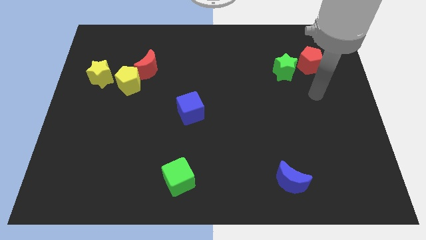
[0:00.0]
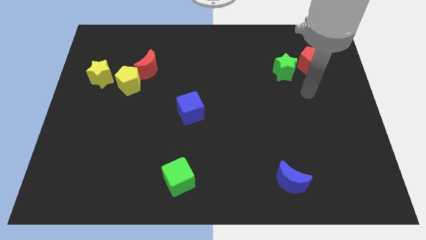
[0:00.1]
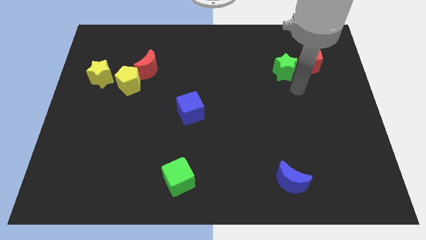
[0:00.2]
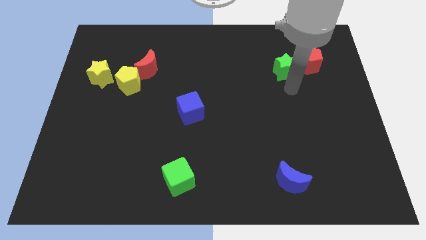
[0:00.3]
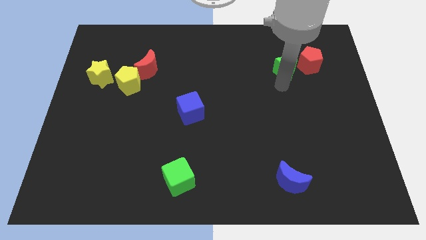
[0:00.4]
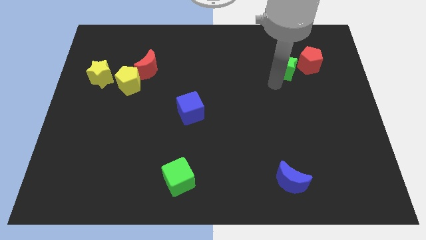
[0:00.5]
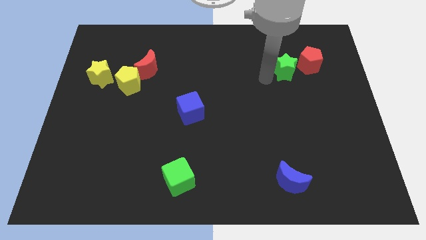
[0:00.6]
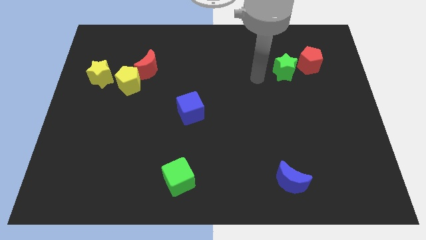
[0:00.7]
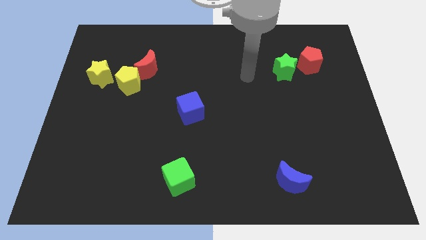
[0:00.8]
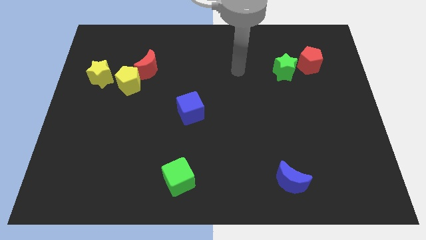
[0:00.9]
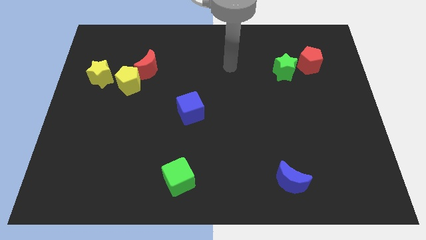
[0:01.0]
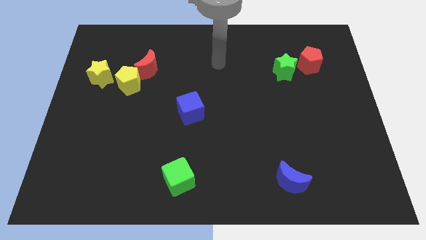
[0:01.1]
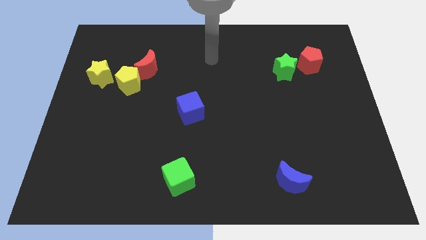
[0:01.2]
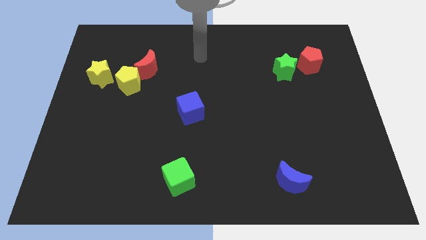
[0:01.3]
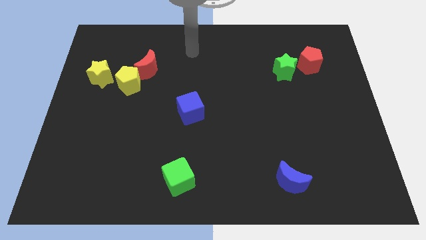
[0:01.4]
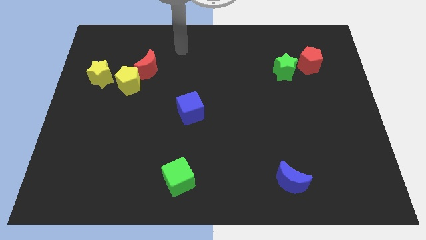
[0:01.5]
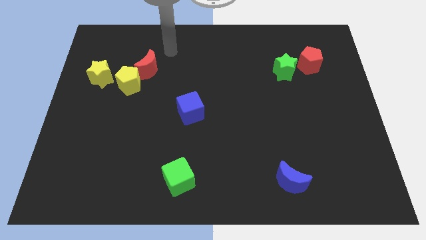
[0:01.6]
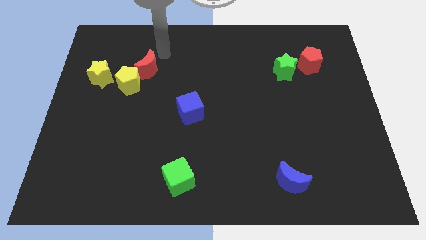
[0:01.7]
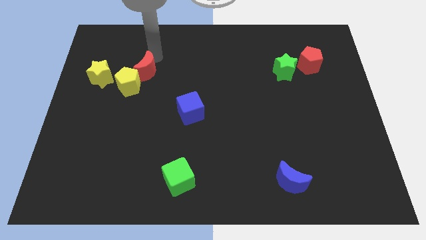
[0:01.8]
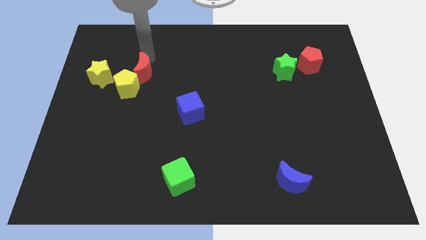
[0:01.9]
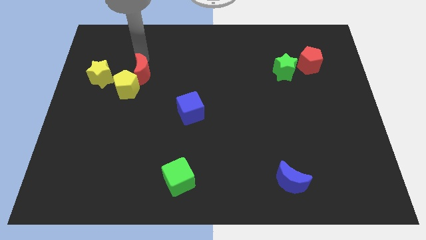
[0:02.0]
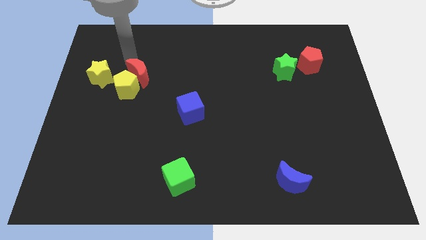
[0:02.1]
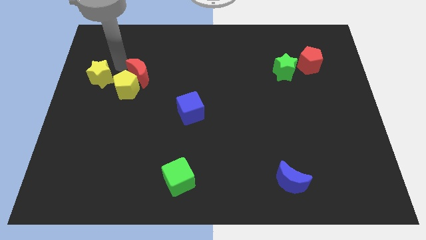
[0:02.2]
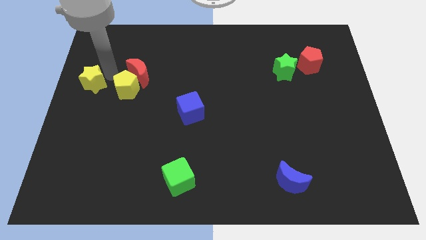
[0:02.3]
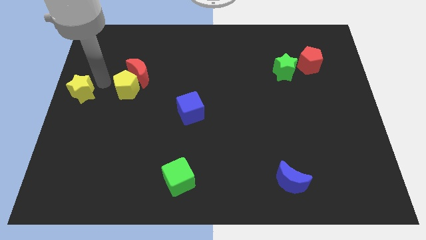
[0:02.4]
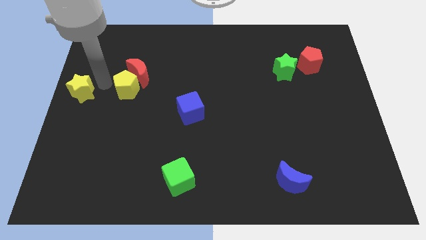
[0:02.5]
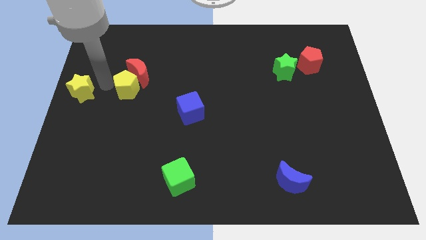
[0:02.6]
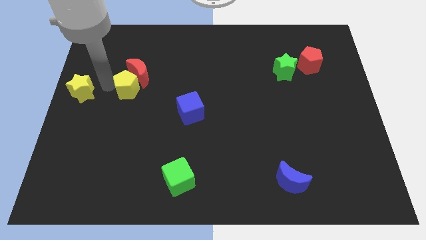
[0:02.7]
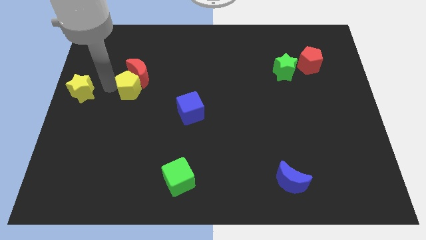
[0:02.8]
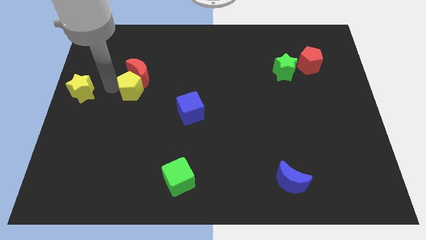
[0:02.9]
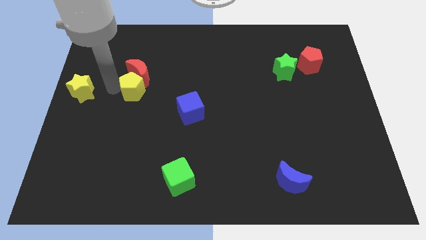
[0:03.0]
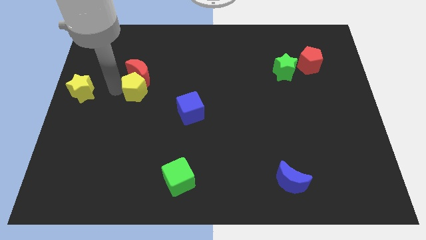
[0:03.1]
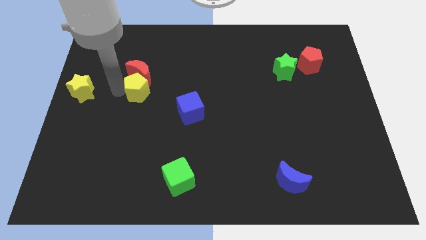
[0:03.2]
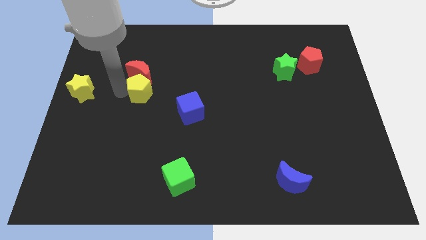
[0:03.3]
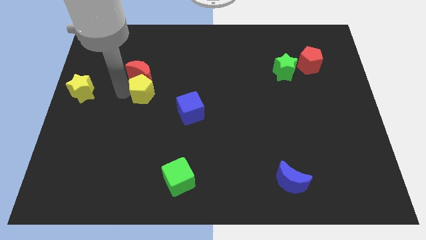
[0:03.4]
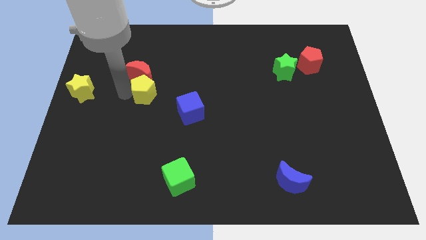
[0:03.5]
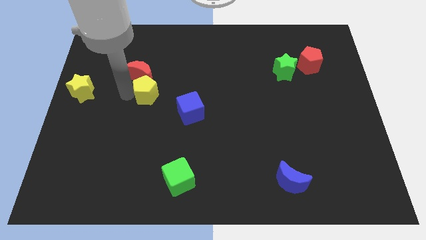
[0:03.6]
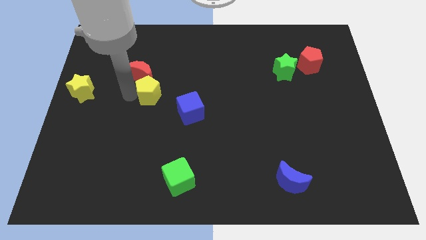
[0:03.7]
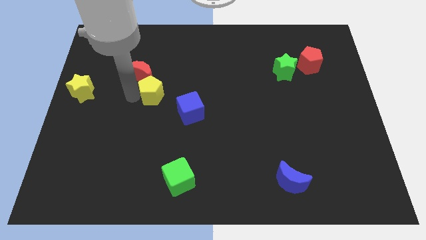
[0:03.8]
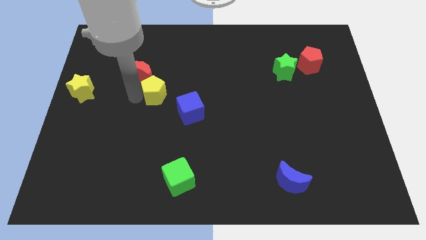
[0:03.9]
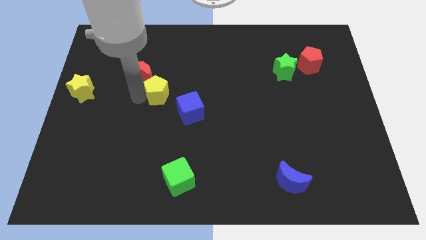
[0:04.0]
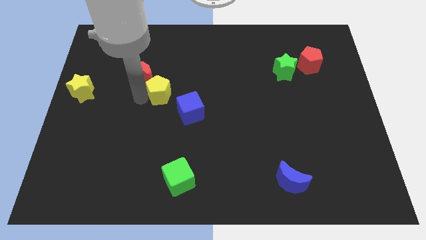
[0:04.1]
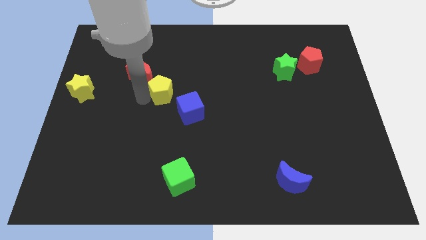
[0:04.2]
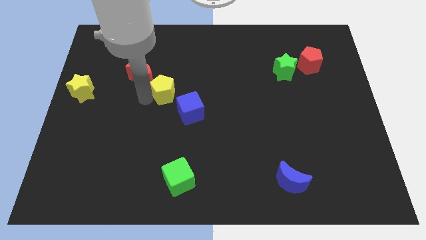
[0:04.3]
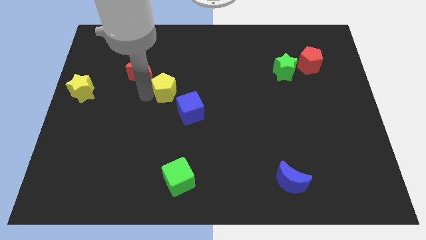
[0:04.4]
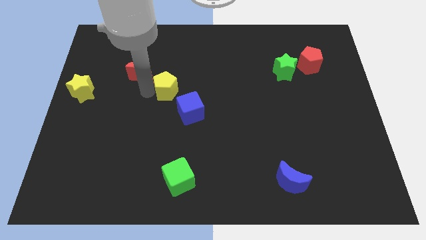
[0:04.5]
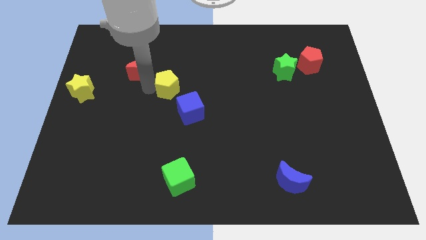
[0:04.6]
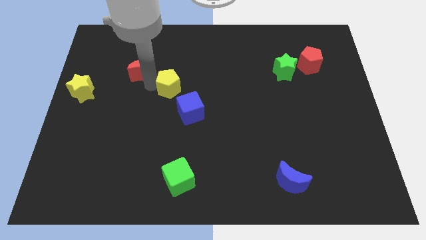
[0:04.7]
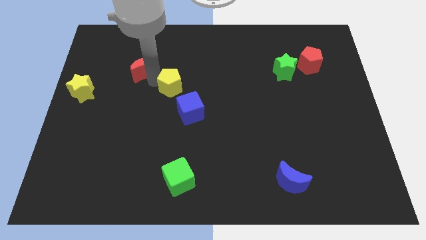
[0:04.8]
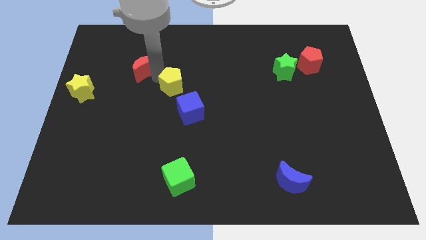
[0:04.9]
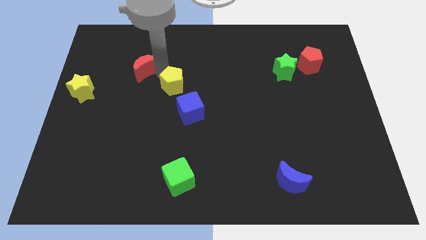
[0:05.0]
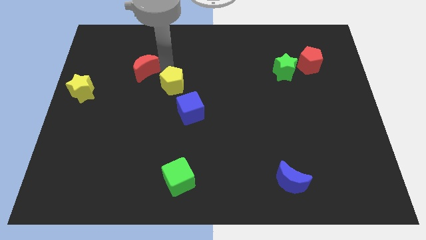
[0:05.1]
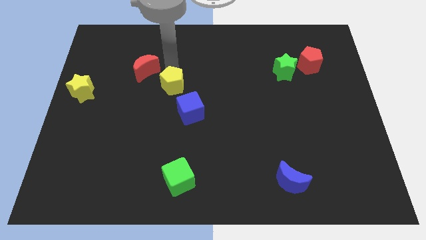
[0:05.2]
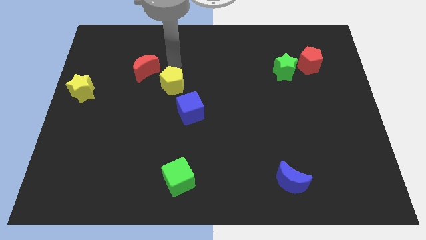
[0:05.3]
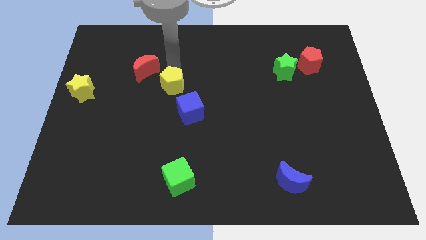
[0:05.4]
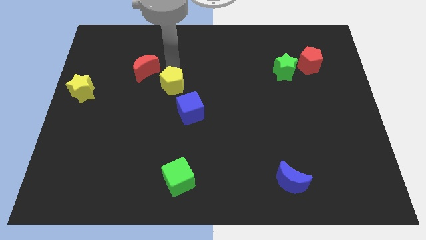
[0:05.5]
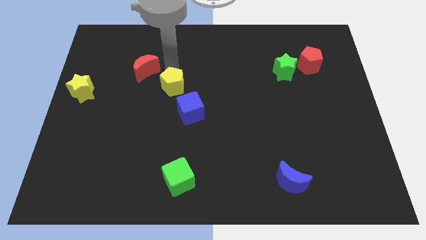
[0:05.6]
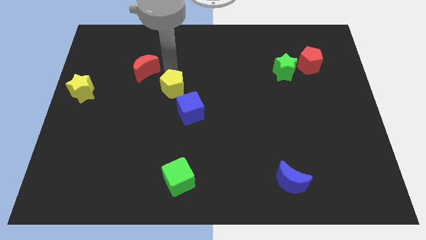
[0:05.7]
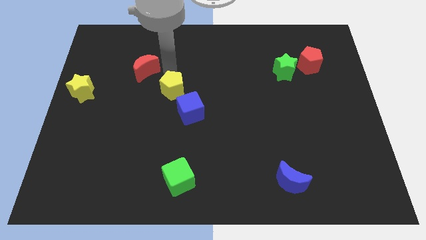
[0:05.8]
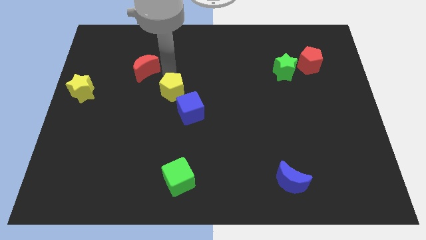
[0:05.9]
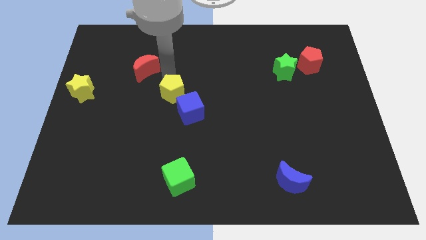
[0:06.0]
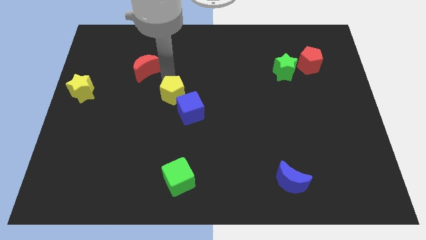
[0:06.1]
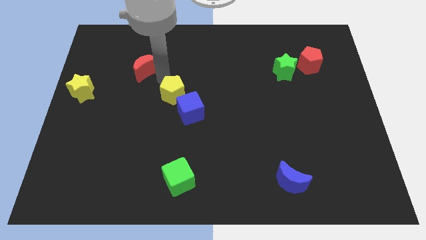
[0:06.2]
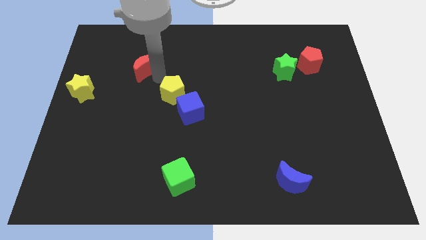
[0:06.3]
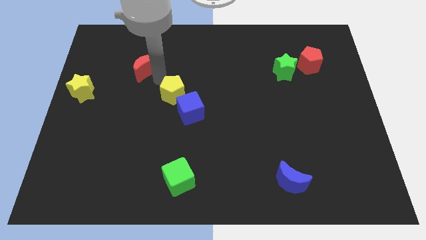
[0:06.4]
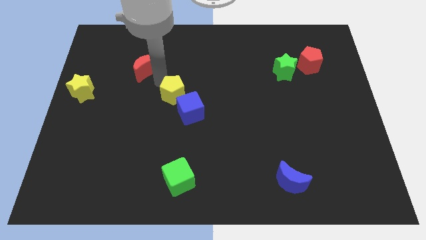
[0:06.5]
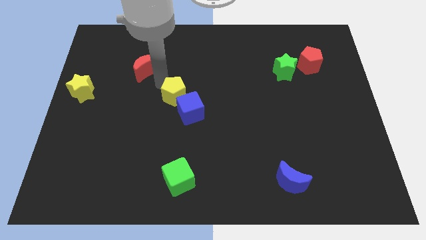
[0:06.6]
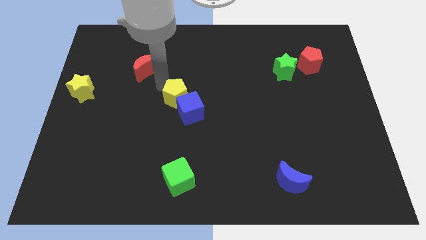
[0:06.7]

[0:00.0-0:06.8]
push the yellow pentagon to the blue cube

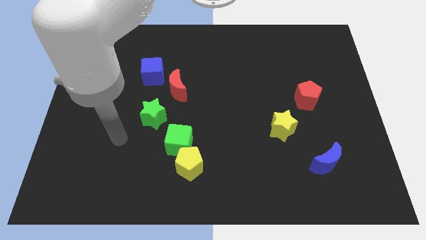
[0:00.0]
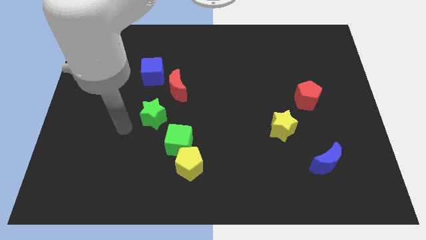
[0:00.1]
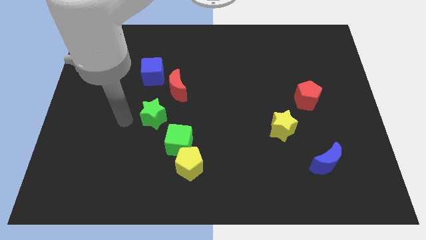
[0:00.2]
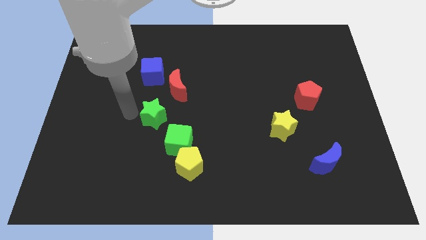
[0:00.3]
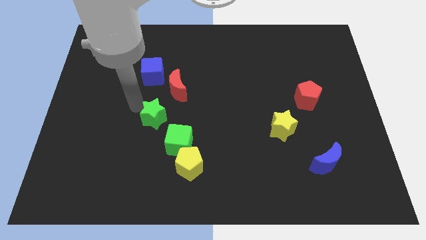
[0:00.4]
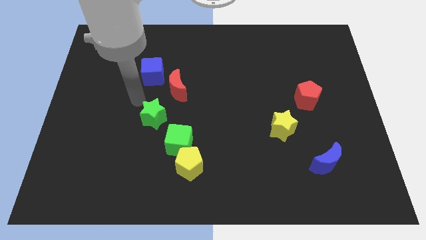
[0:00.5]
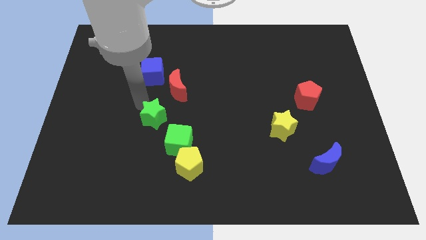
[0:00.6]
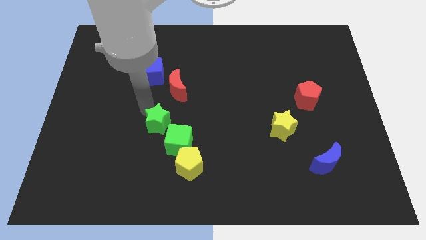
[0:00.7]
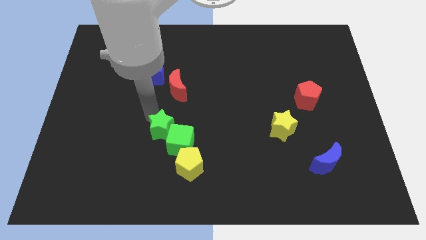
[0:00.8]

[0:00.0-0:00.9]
put the green star to the green cube
